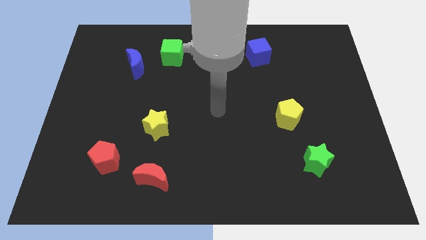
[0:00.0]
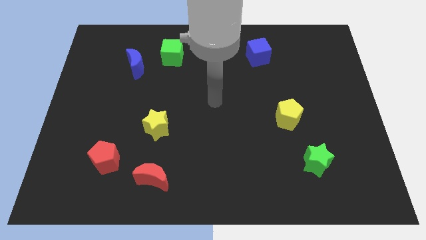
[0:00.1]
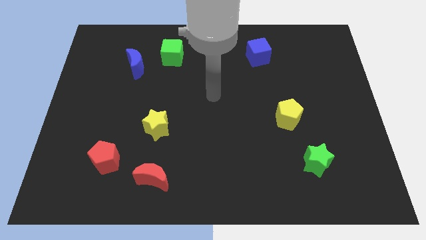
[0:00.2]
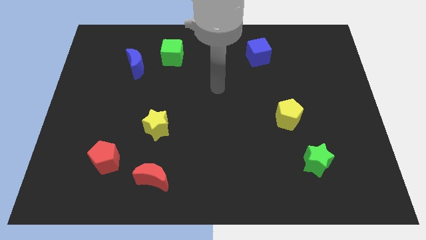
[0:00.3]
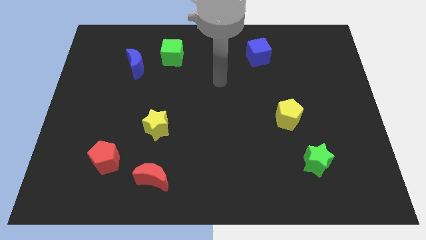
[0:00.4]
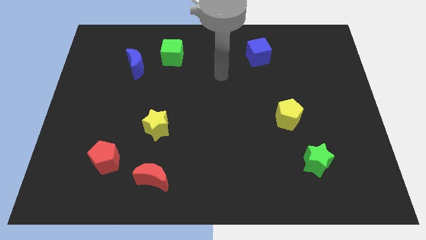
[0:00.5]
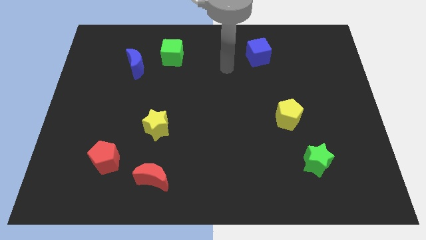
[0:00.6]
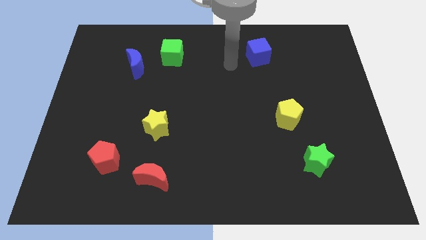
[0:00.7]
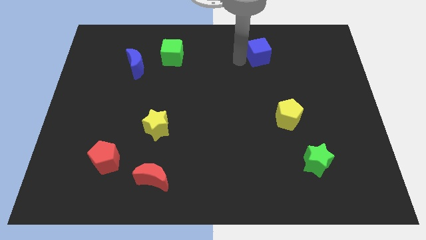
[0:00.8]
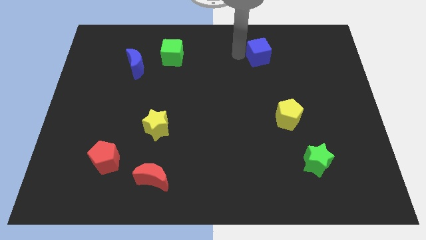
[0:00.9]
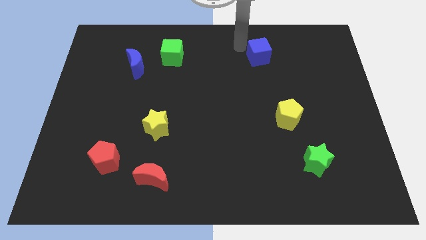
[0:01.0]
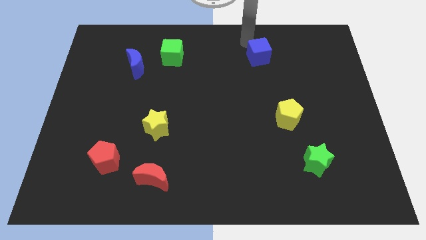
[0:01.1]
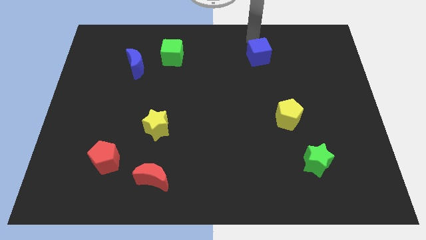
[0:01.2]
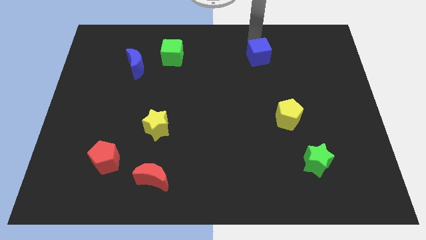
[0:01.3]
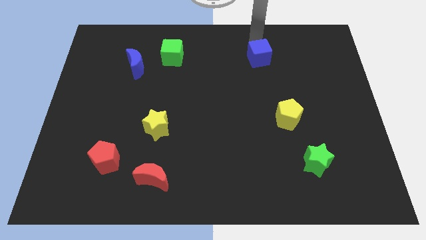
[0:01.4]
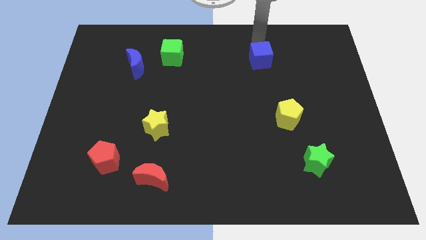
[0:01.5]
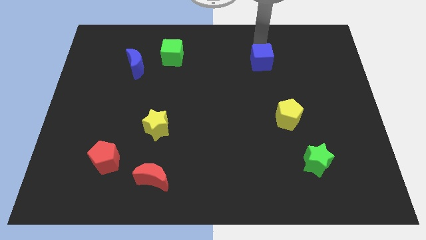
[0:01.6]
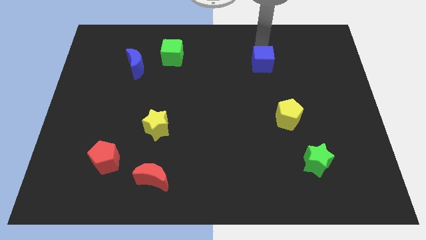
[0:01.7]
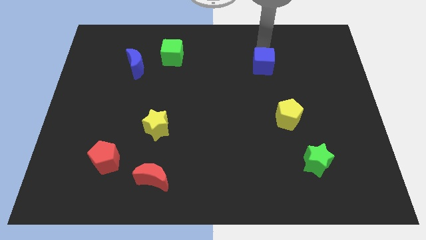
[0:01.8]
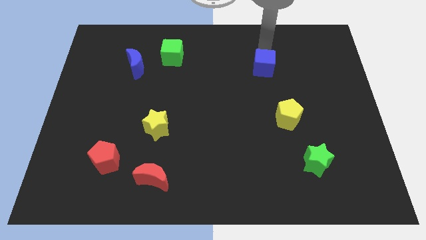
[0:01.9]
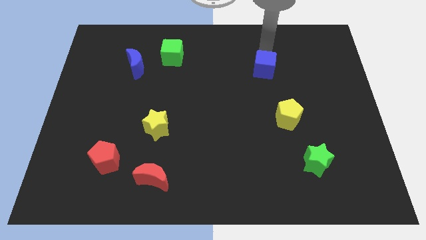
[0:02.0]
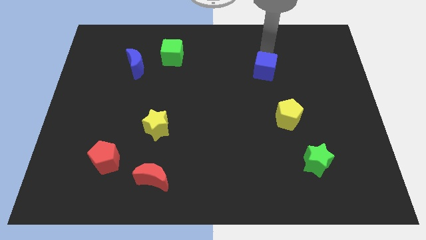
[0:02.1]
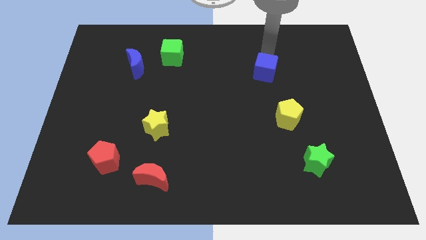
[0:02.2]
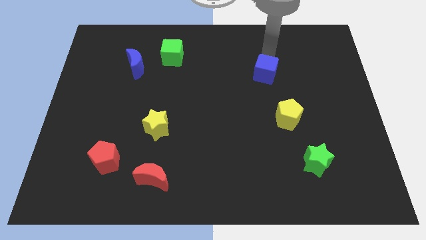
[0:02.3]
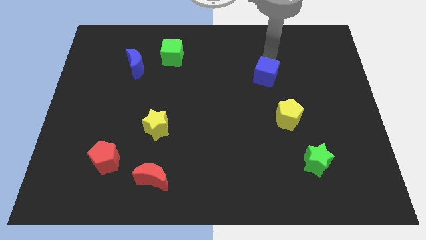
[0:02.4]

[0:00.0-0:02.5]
move the blue cube down a bit

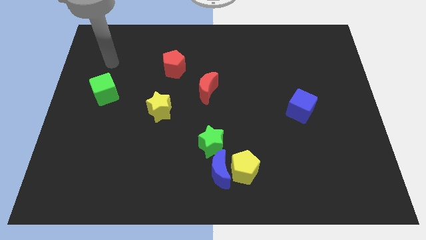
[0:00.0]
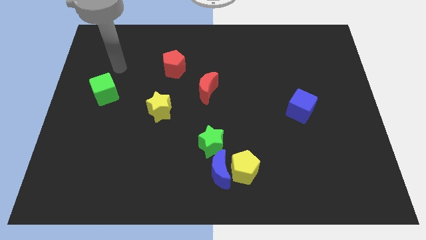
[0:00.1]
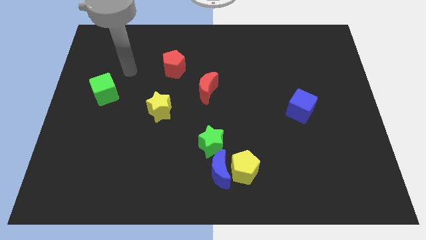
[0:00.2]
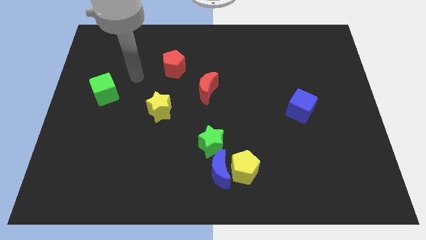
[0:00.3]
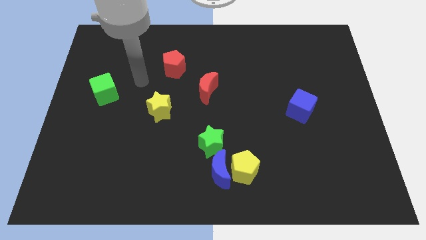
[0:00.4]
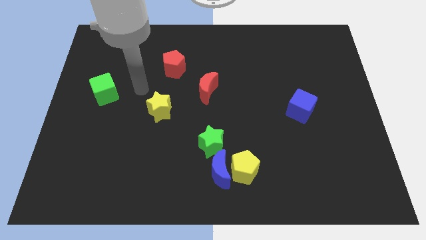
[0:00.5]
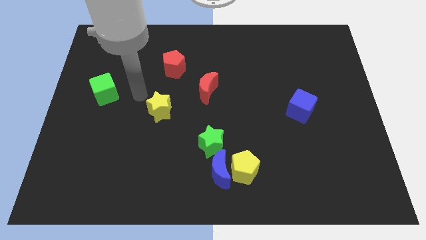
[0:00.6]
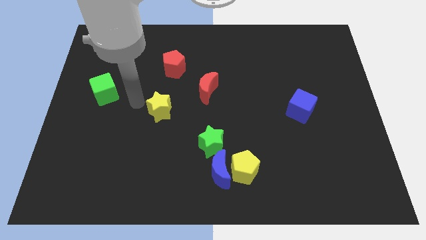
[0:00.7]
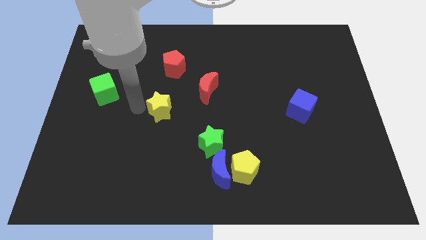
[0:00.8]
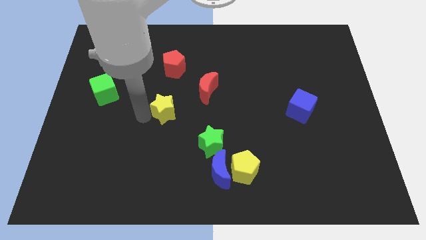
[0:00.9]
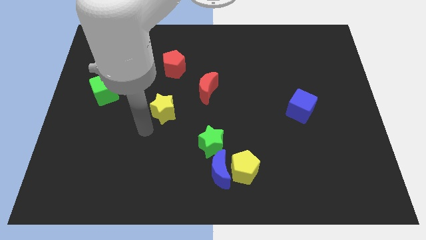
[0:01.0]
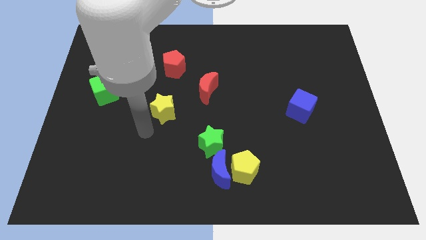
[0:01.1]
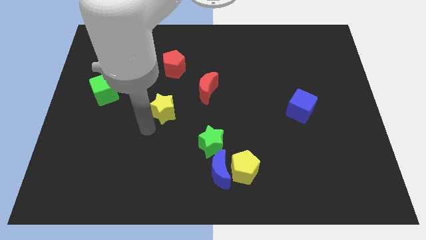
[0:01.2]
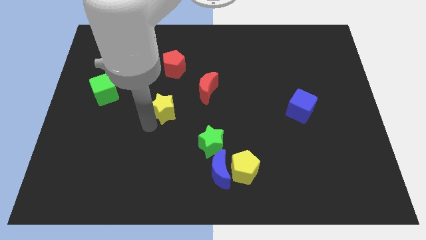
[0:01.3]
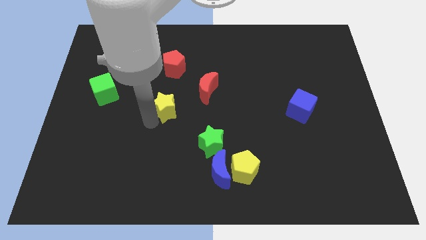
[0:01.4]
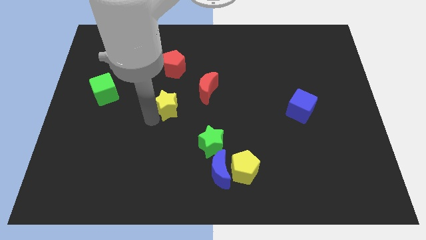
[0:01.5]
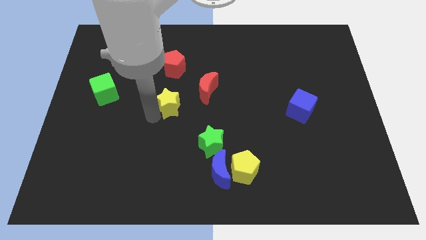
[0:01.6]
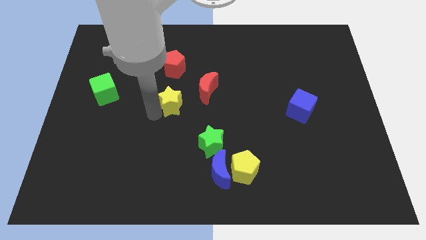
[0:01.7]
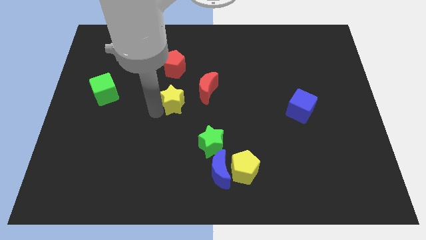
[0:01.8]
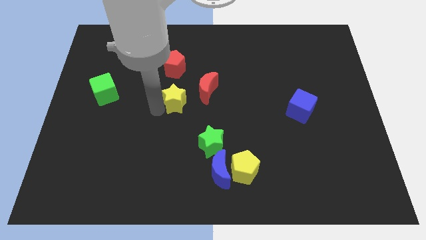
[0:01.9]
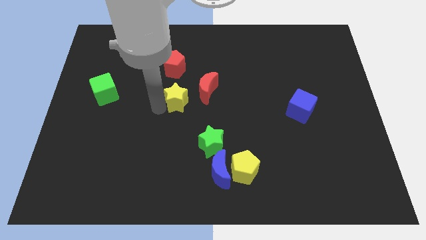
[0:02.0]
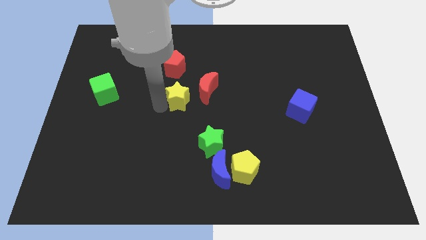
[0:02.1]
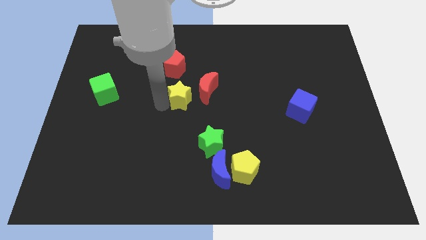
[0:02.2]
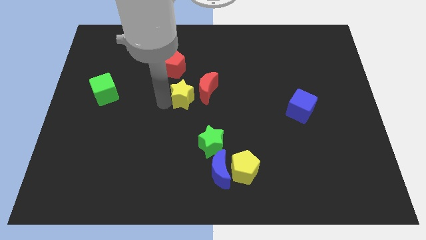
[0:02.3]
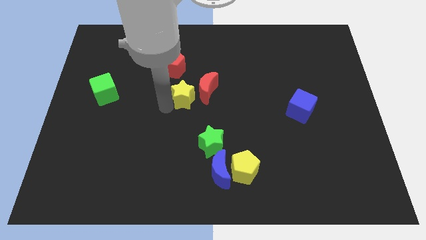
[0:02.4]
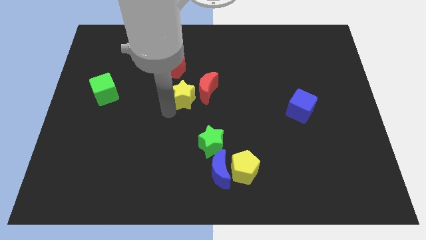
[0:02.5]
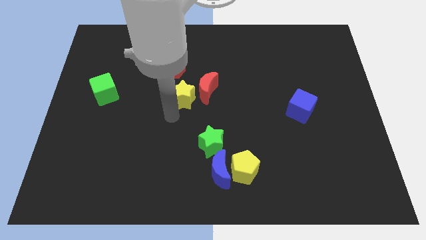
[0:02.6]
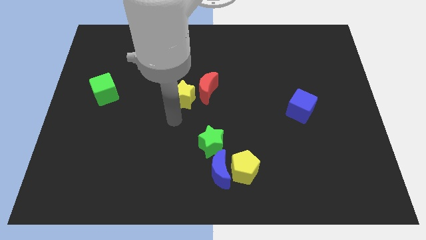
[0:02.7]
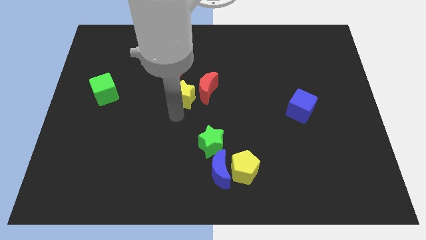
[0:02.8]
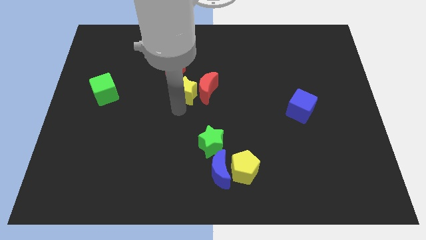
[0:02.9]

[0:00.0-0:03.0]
slightly push the yellow star diagonally up and right

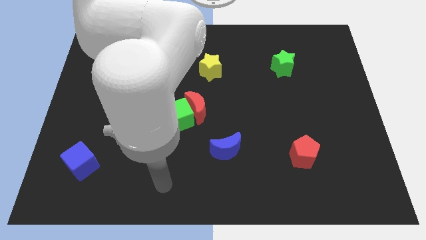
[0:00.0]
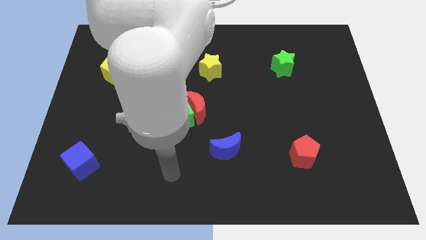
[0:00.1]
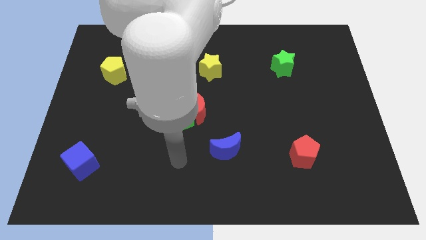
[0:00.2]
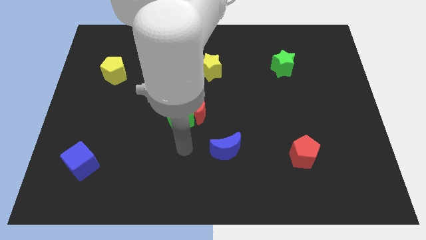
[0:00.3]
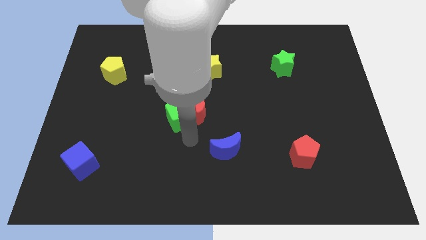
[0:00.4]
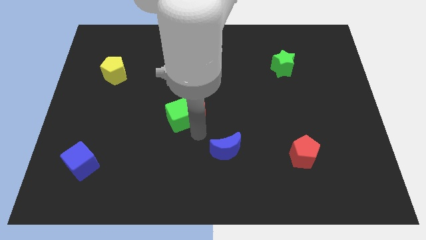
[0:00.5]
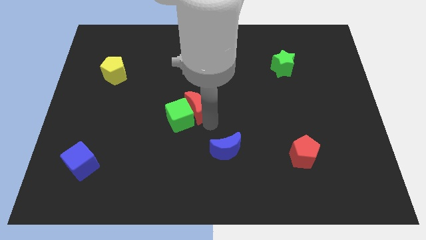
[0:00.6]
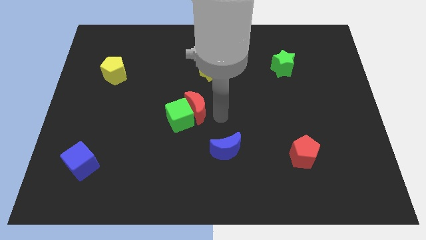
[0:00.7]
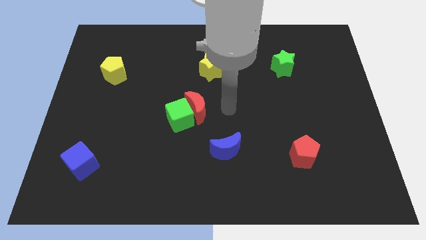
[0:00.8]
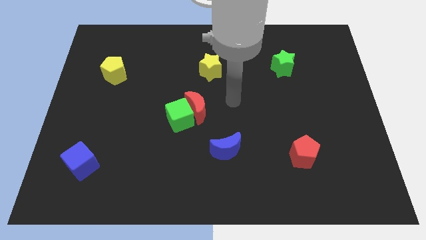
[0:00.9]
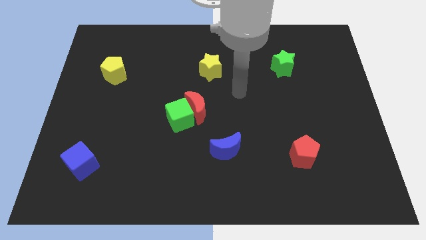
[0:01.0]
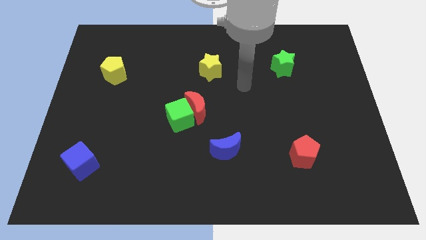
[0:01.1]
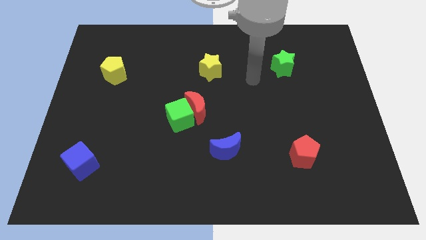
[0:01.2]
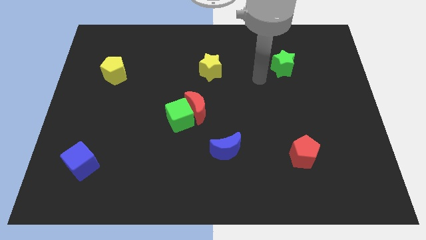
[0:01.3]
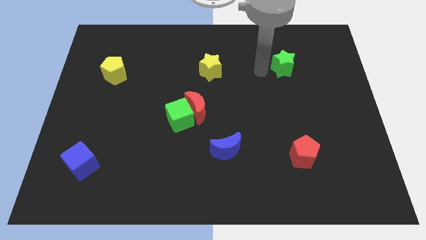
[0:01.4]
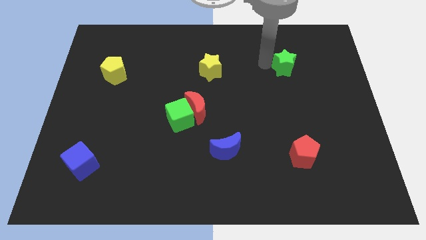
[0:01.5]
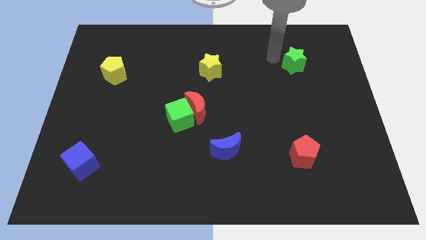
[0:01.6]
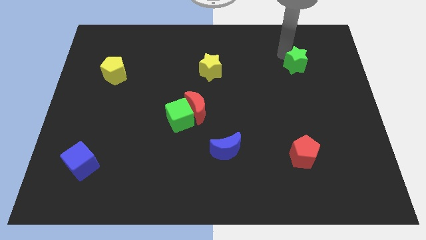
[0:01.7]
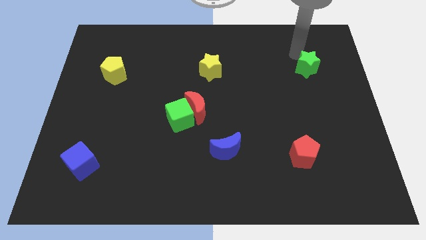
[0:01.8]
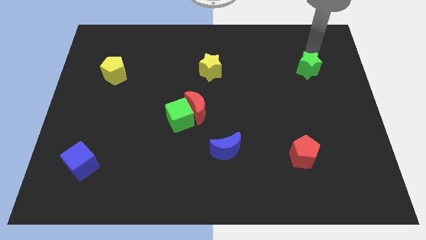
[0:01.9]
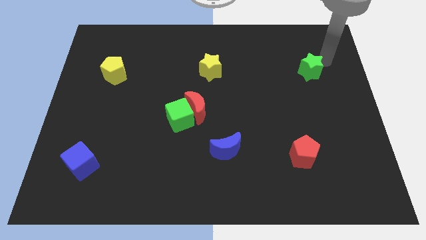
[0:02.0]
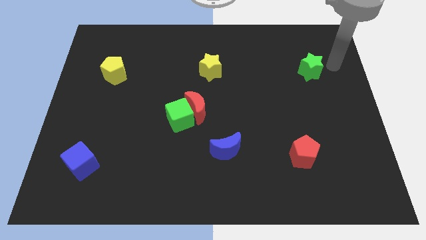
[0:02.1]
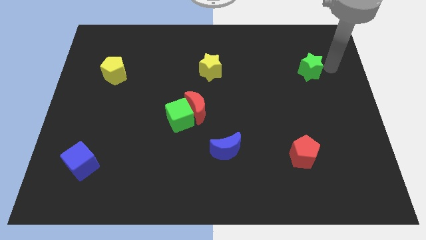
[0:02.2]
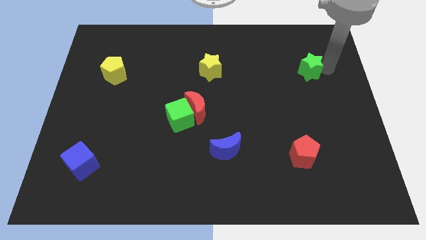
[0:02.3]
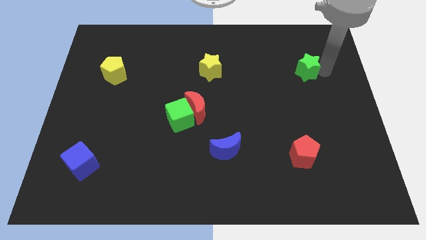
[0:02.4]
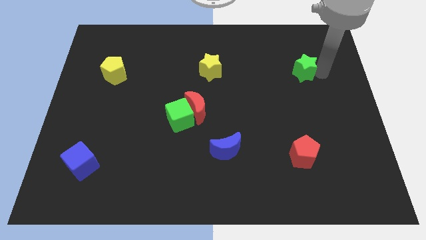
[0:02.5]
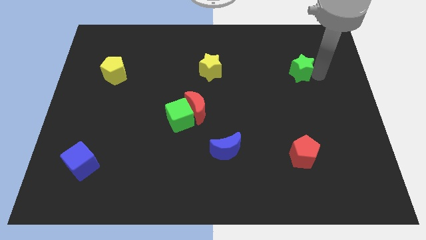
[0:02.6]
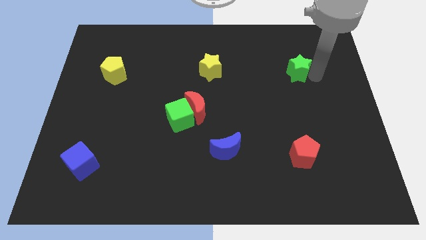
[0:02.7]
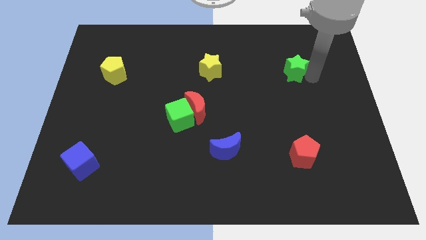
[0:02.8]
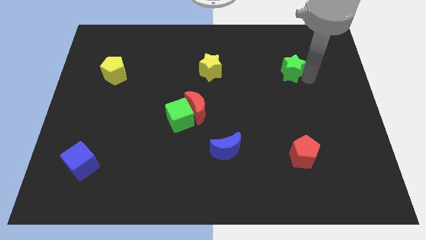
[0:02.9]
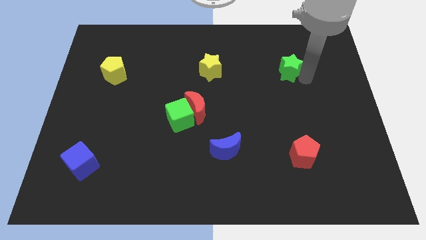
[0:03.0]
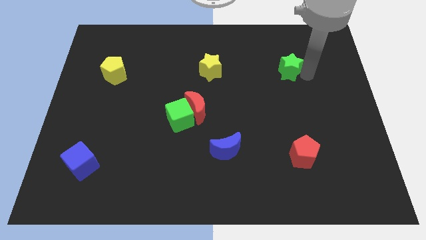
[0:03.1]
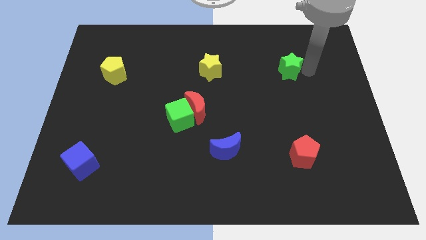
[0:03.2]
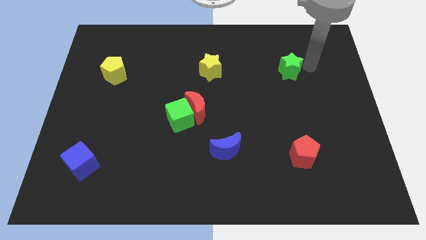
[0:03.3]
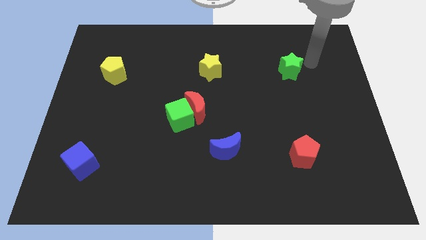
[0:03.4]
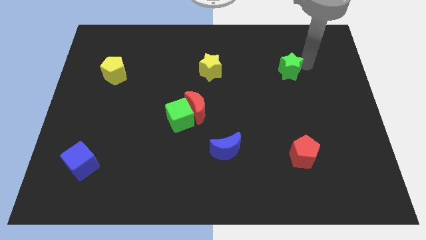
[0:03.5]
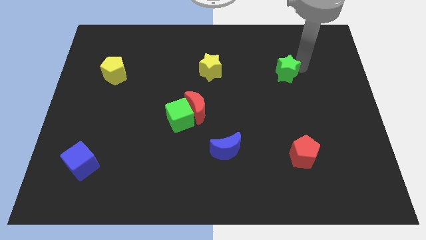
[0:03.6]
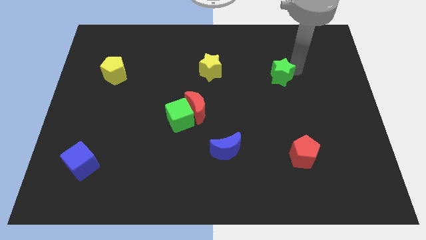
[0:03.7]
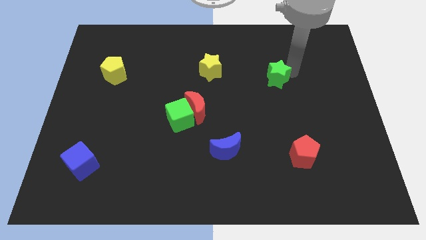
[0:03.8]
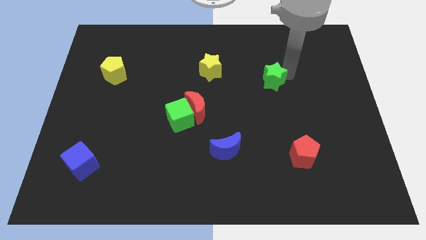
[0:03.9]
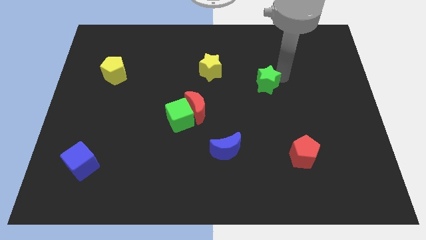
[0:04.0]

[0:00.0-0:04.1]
slide the green star a little bit downwards and to the left diagonally
